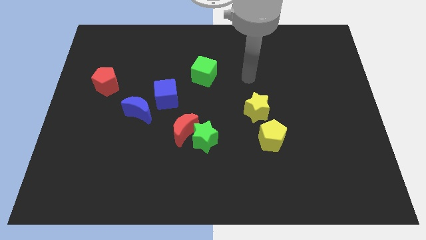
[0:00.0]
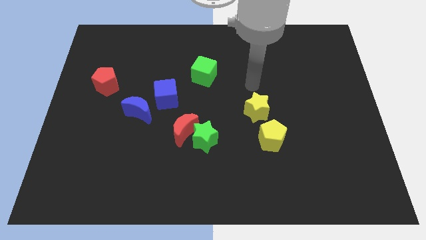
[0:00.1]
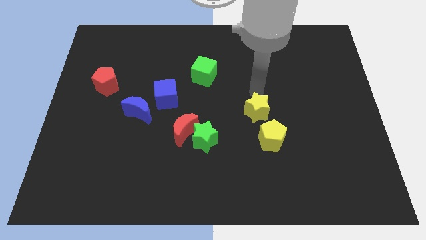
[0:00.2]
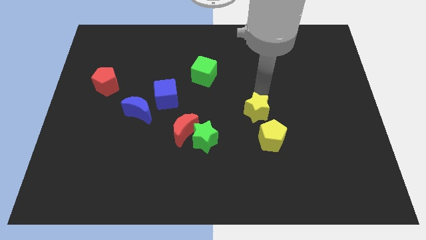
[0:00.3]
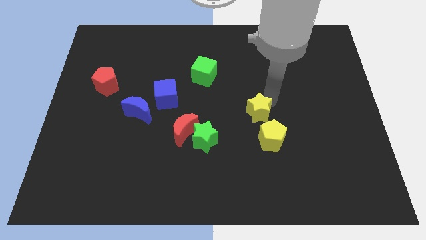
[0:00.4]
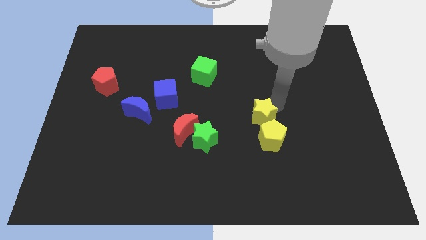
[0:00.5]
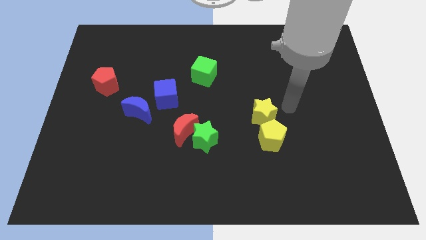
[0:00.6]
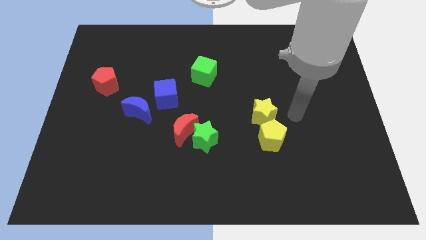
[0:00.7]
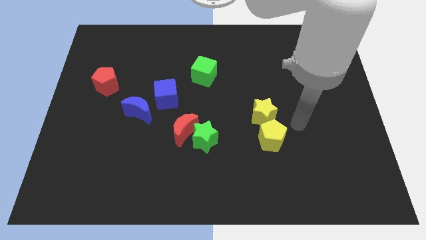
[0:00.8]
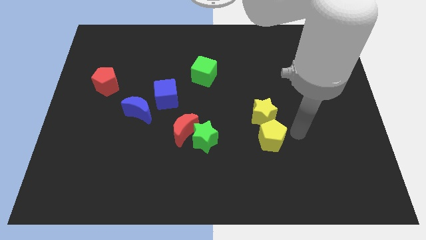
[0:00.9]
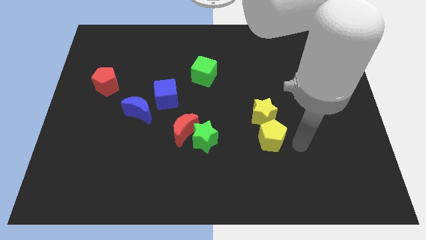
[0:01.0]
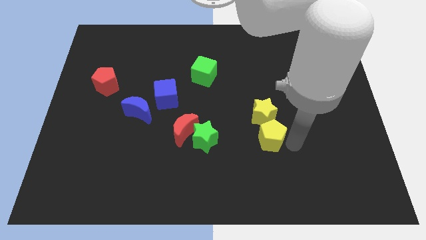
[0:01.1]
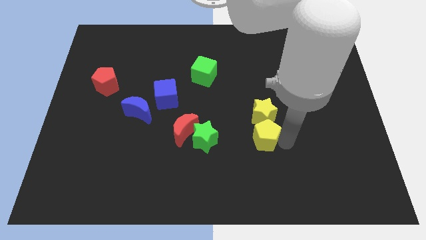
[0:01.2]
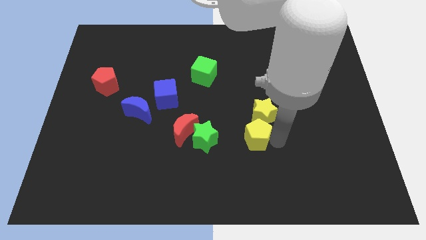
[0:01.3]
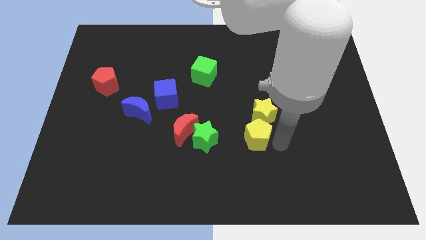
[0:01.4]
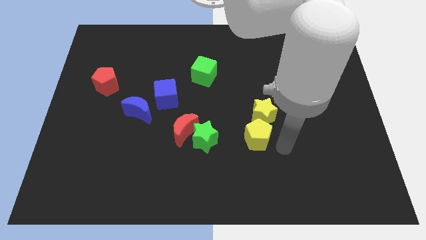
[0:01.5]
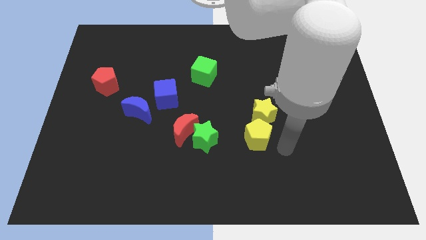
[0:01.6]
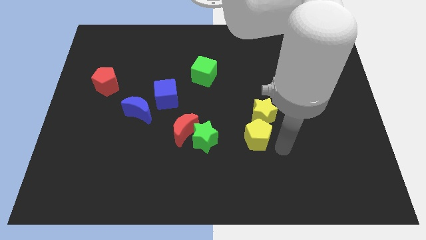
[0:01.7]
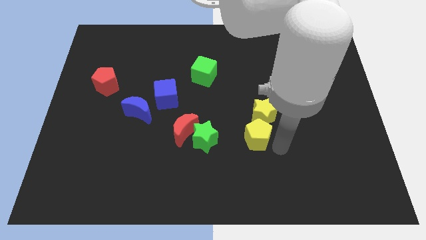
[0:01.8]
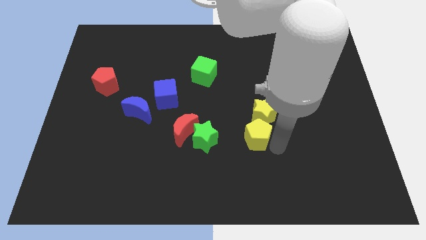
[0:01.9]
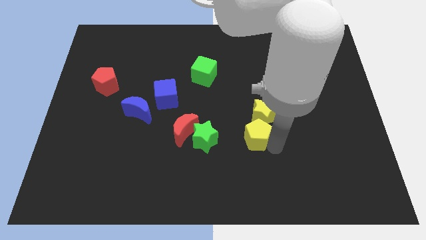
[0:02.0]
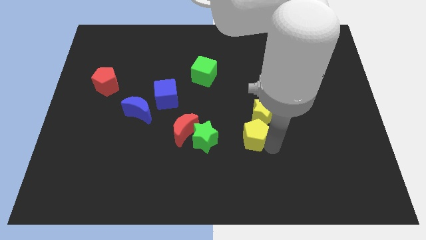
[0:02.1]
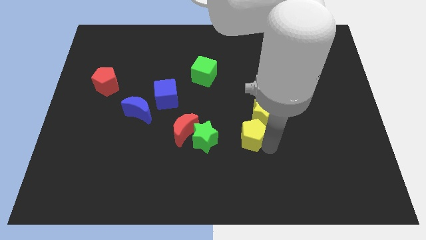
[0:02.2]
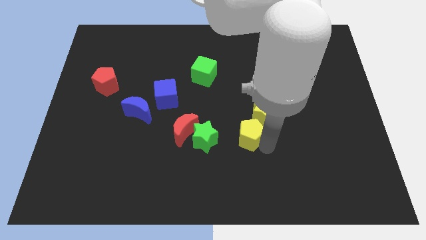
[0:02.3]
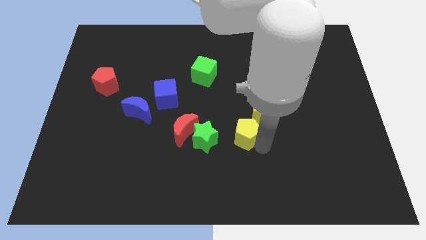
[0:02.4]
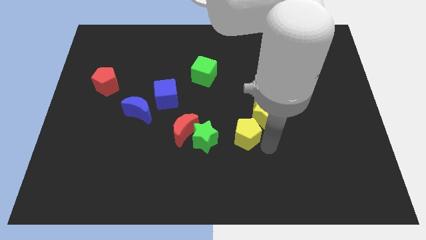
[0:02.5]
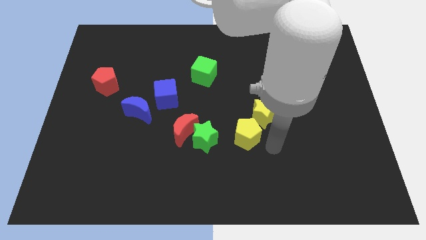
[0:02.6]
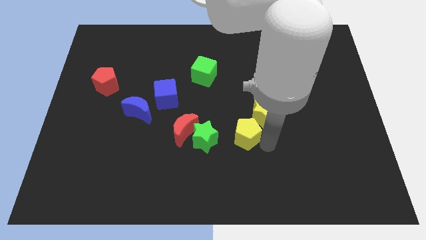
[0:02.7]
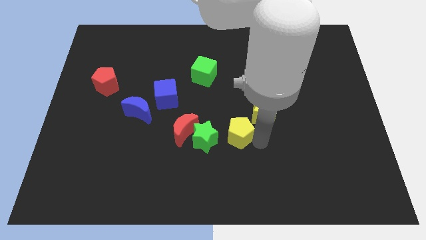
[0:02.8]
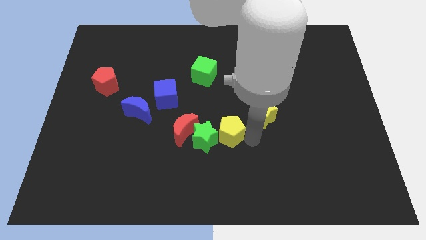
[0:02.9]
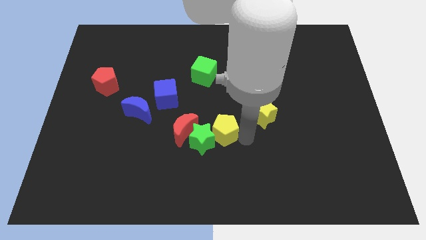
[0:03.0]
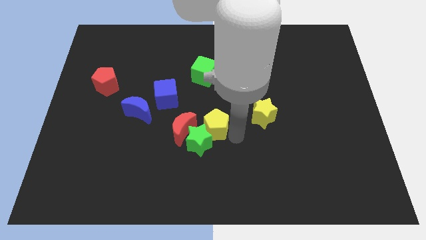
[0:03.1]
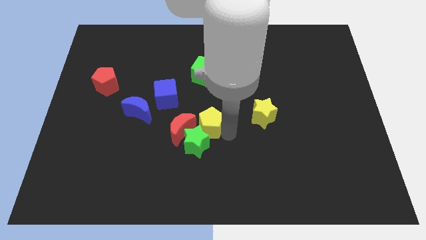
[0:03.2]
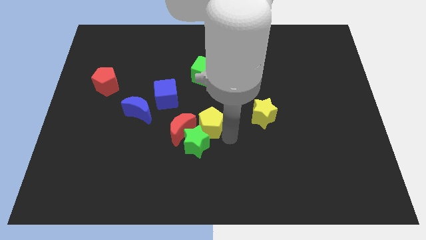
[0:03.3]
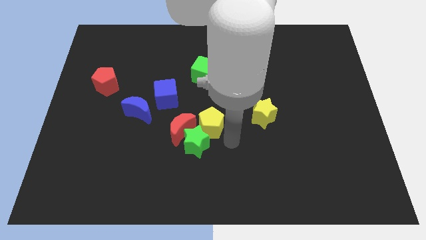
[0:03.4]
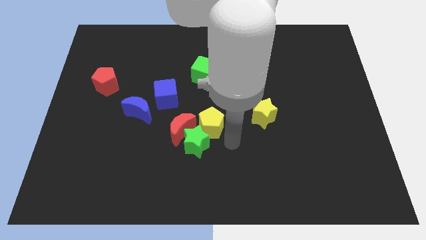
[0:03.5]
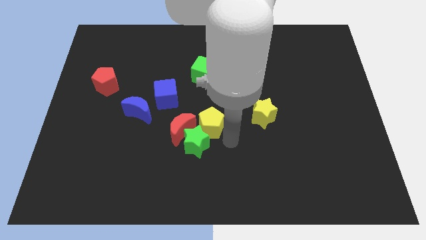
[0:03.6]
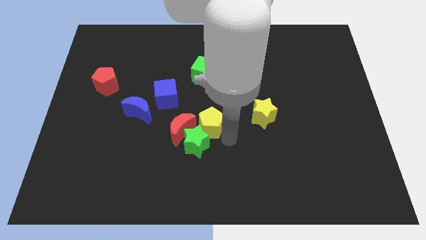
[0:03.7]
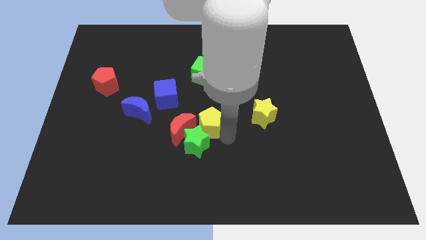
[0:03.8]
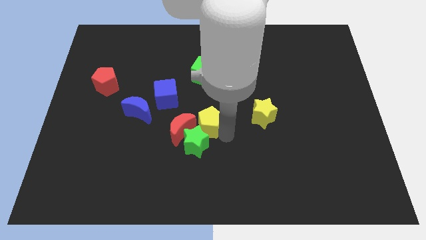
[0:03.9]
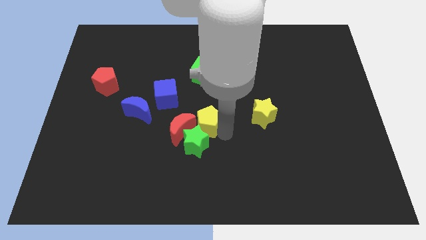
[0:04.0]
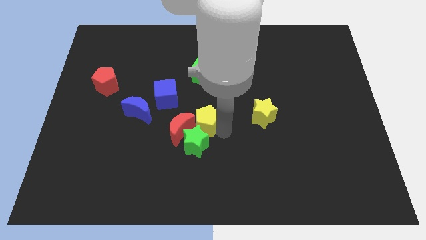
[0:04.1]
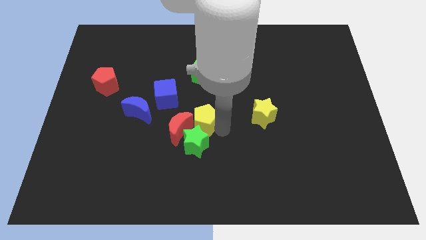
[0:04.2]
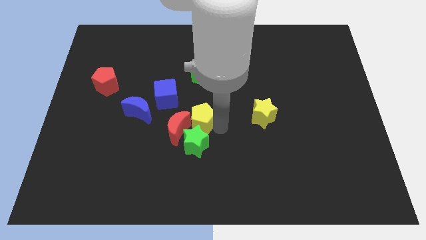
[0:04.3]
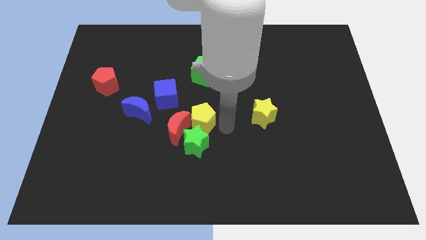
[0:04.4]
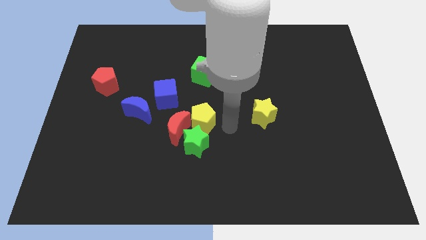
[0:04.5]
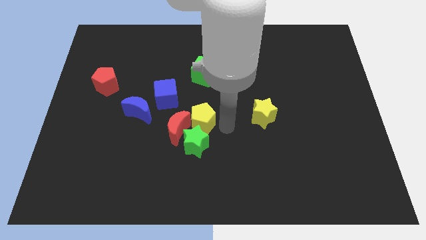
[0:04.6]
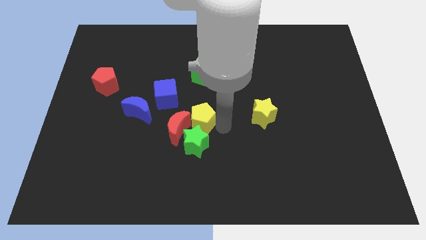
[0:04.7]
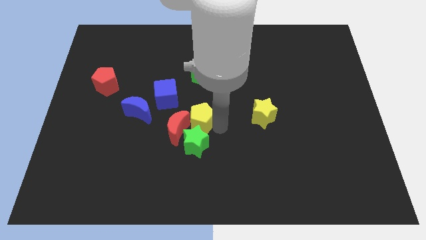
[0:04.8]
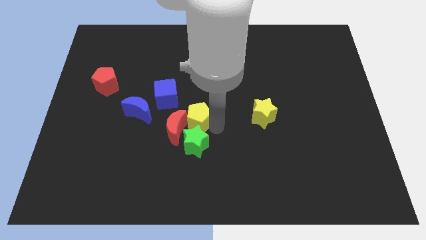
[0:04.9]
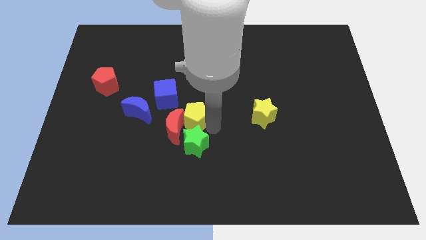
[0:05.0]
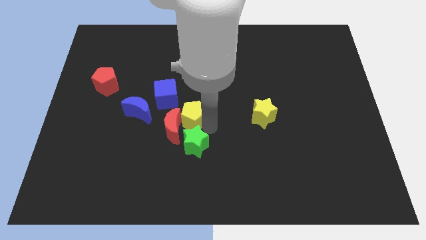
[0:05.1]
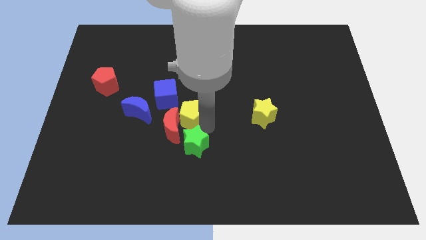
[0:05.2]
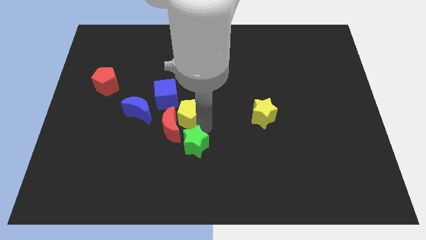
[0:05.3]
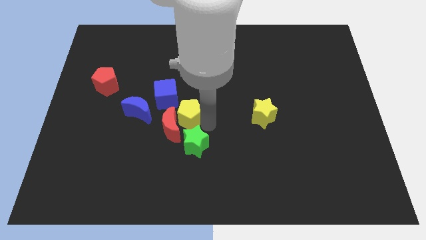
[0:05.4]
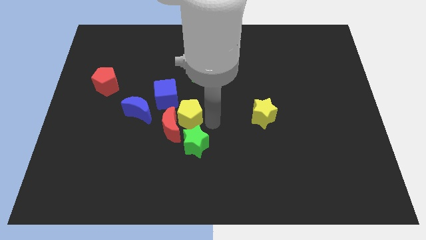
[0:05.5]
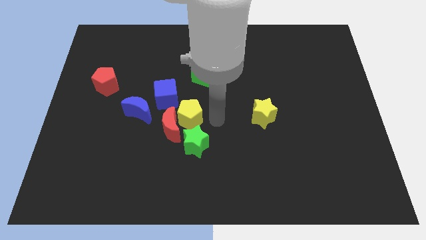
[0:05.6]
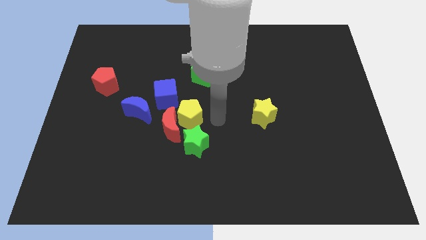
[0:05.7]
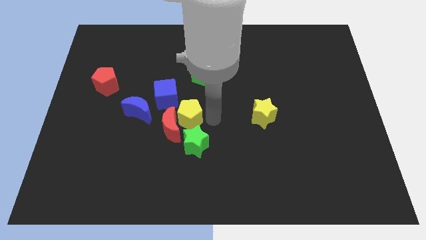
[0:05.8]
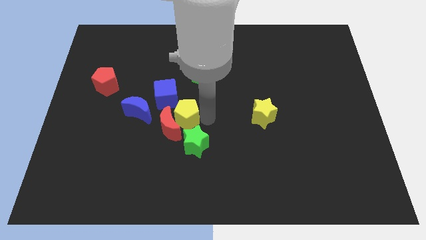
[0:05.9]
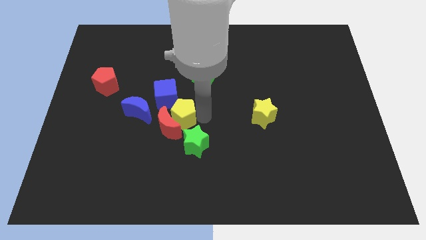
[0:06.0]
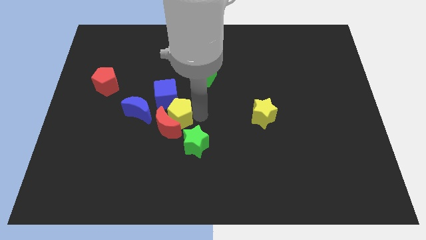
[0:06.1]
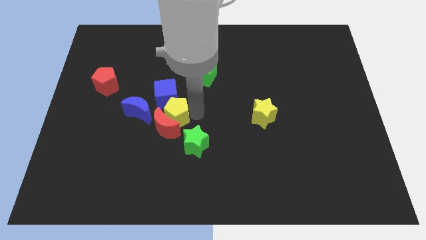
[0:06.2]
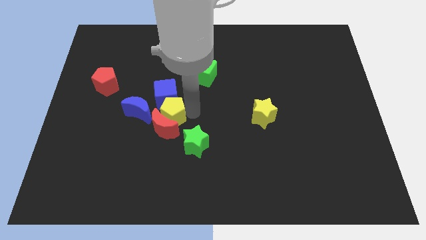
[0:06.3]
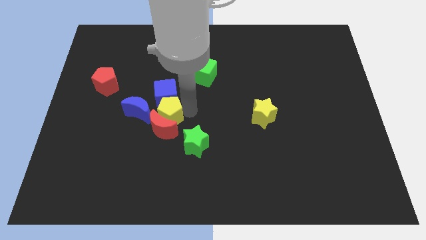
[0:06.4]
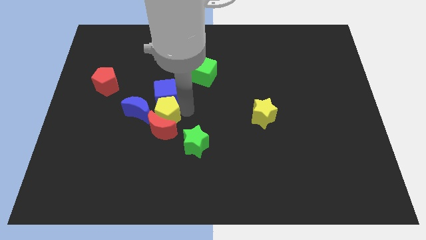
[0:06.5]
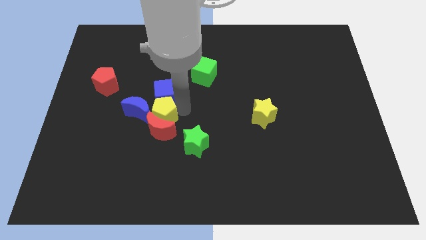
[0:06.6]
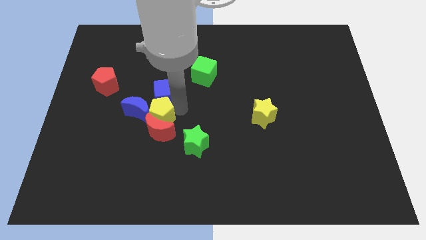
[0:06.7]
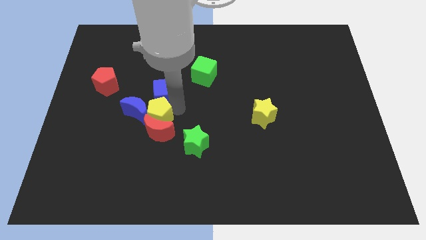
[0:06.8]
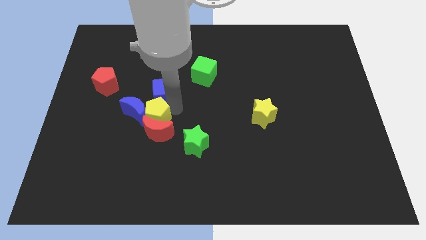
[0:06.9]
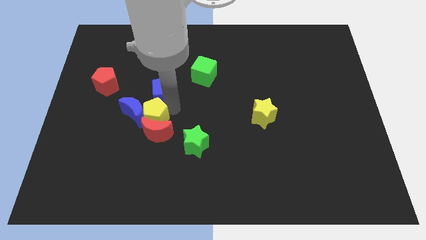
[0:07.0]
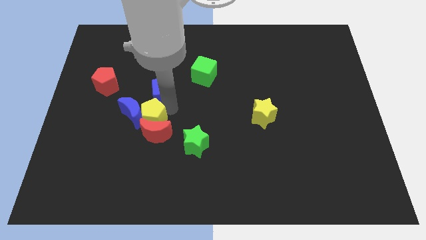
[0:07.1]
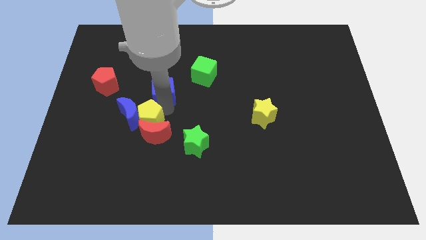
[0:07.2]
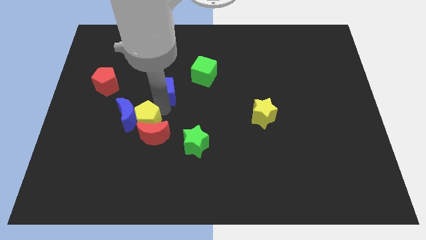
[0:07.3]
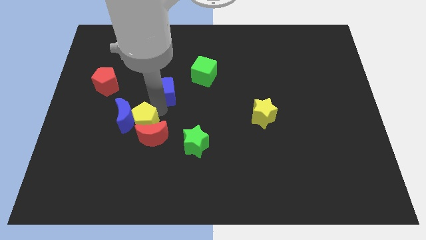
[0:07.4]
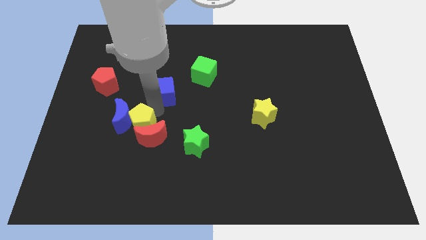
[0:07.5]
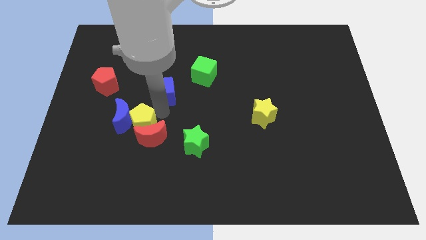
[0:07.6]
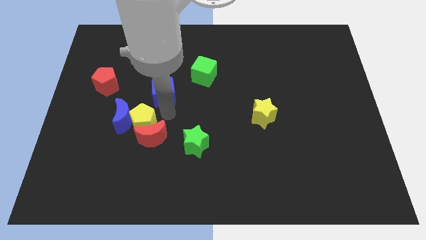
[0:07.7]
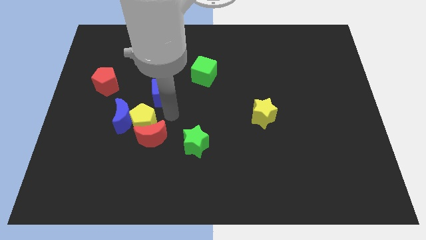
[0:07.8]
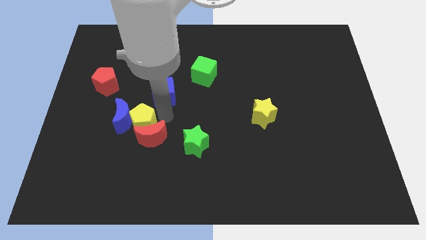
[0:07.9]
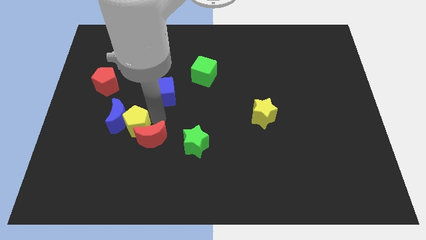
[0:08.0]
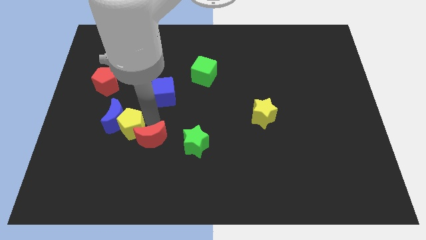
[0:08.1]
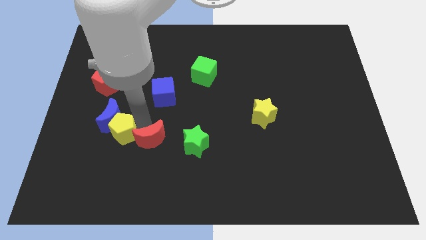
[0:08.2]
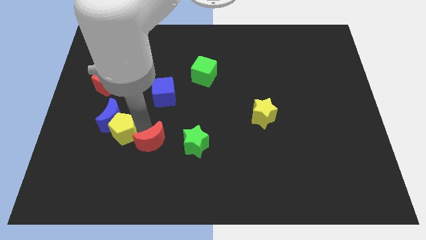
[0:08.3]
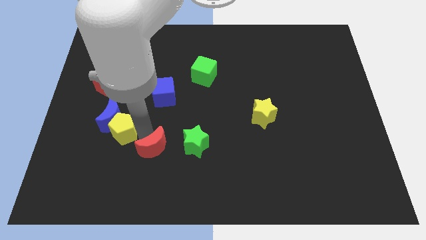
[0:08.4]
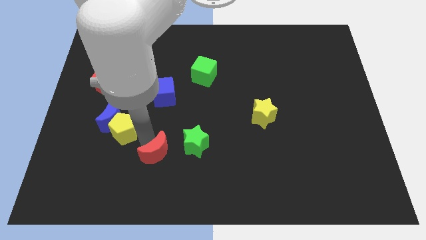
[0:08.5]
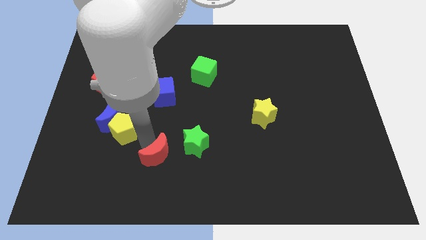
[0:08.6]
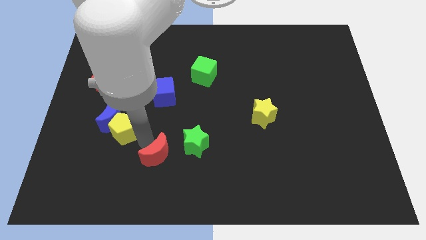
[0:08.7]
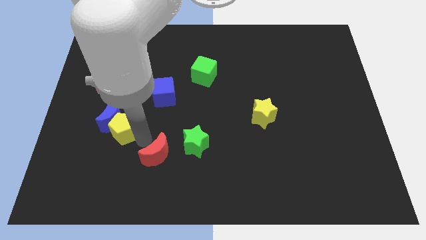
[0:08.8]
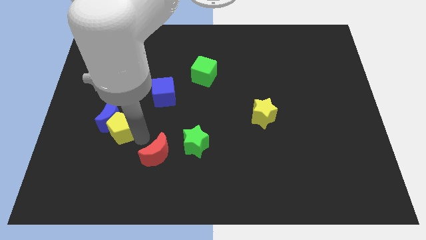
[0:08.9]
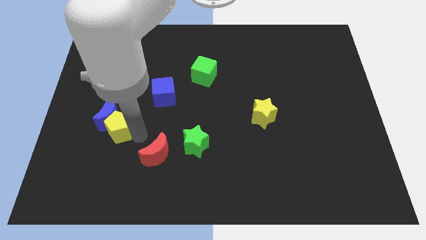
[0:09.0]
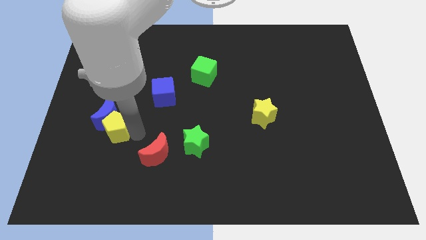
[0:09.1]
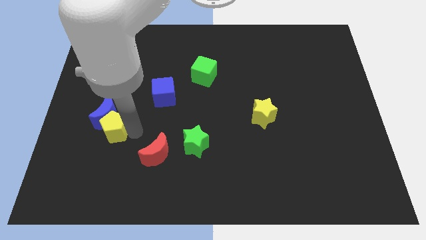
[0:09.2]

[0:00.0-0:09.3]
push the yellow pentagon below the red pentagon
